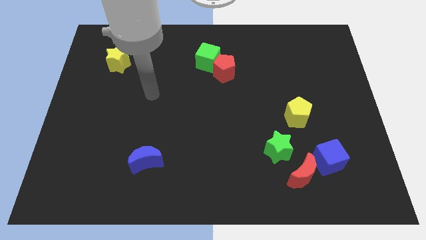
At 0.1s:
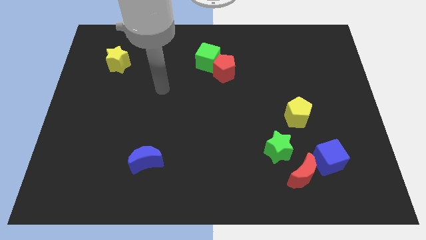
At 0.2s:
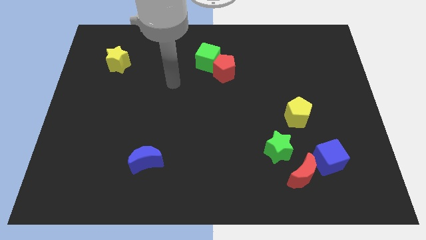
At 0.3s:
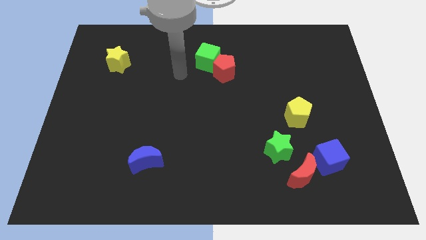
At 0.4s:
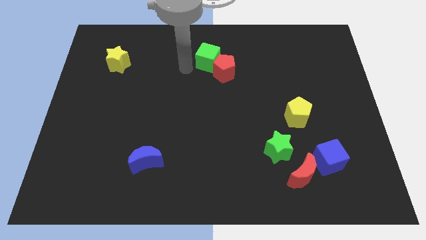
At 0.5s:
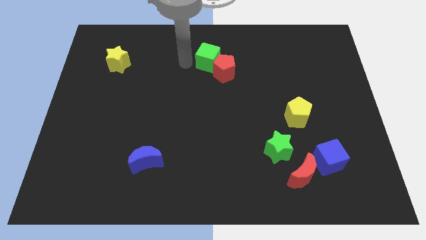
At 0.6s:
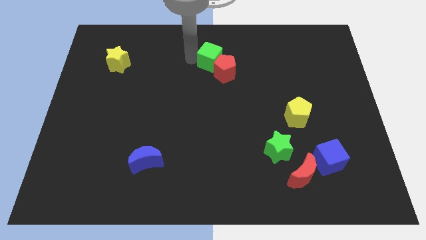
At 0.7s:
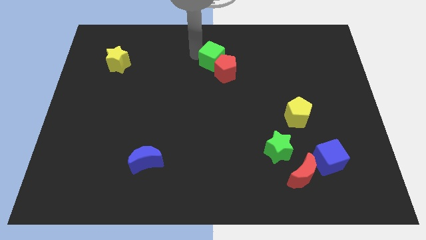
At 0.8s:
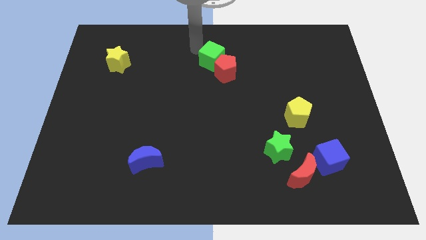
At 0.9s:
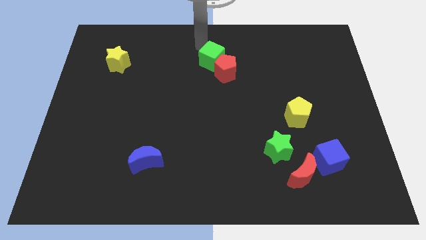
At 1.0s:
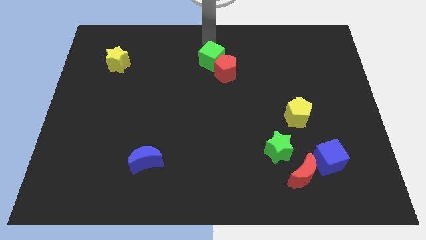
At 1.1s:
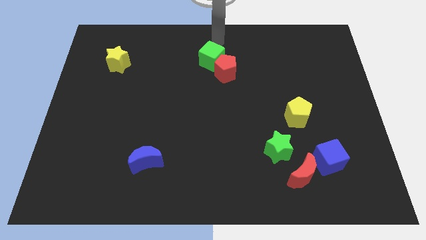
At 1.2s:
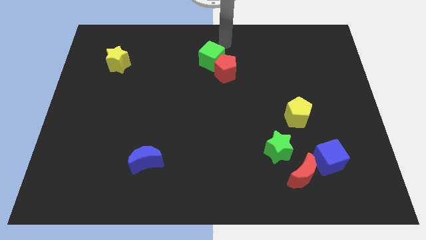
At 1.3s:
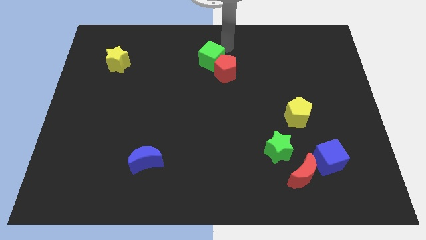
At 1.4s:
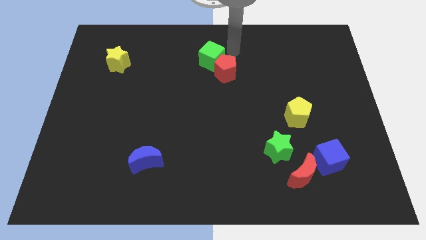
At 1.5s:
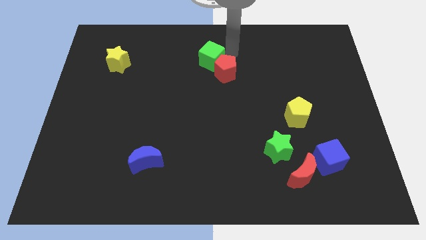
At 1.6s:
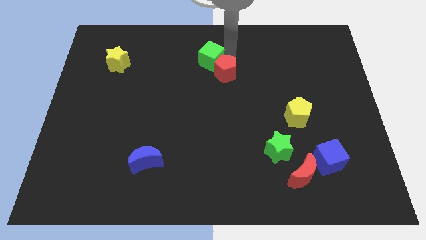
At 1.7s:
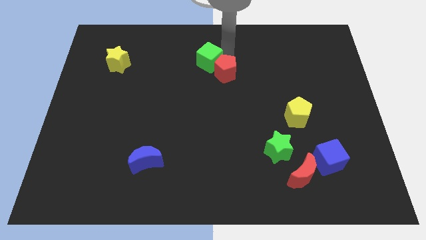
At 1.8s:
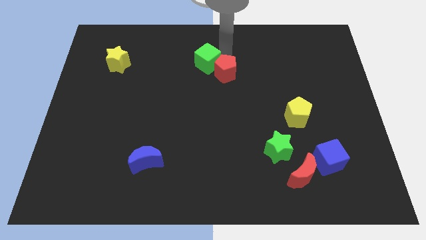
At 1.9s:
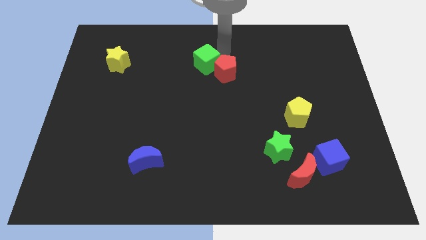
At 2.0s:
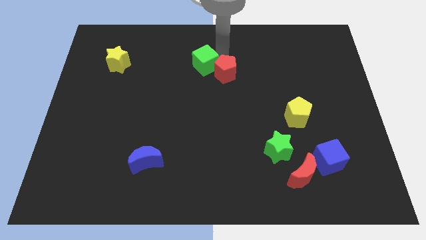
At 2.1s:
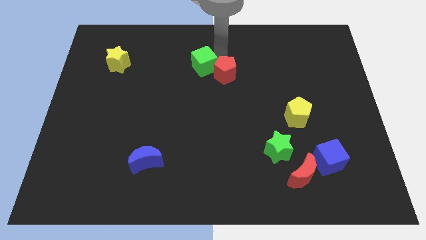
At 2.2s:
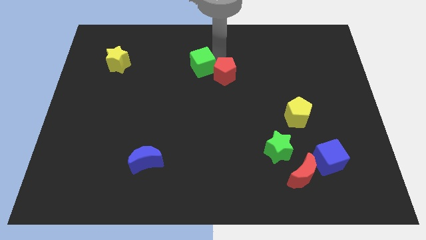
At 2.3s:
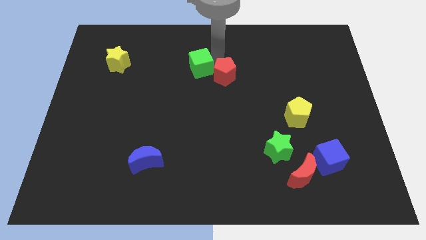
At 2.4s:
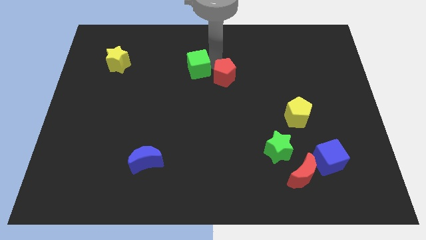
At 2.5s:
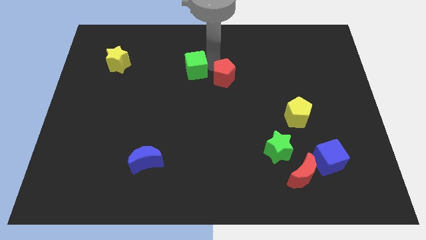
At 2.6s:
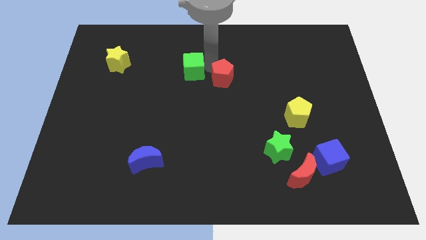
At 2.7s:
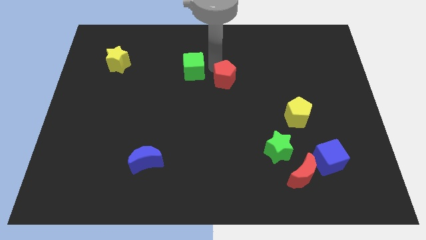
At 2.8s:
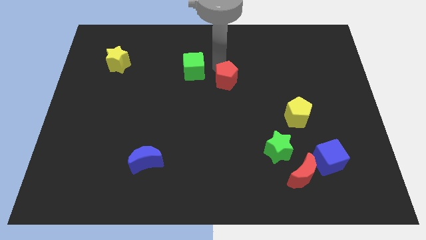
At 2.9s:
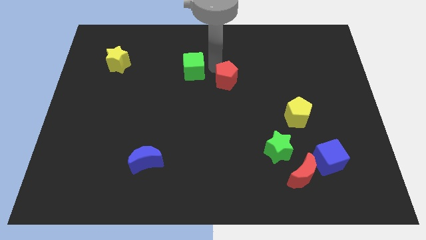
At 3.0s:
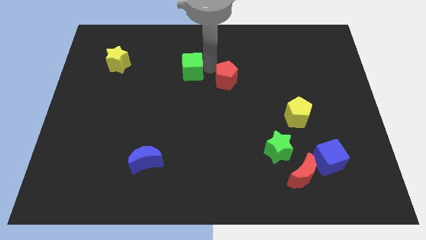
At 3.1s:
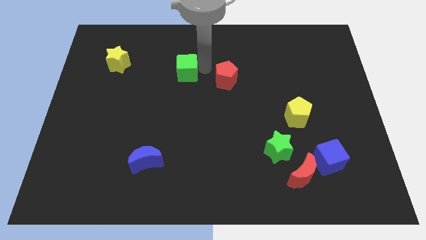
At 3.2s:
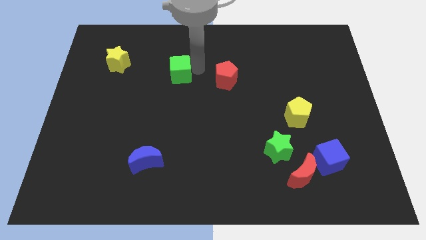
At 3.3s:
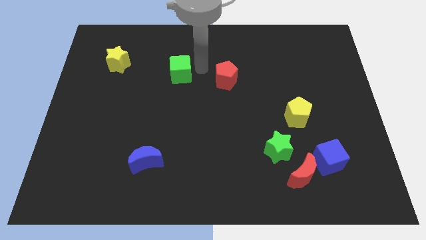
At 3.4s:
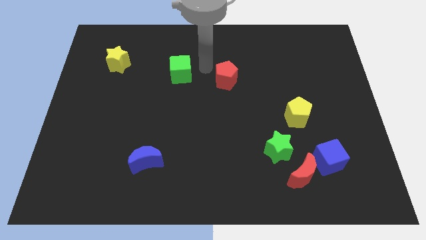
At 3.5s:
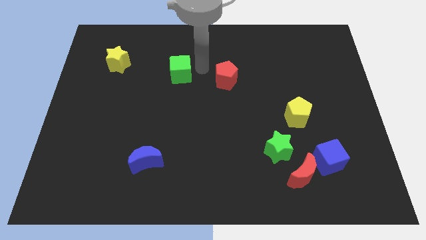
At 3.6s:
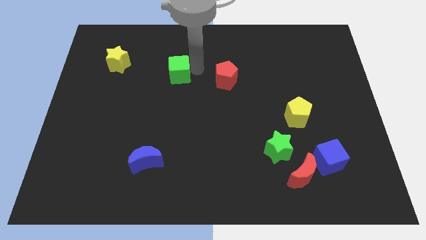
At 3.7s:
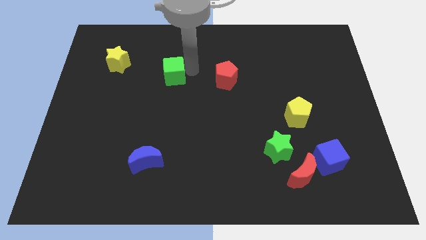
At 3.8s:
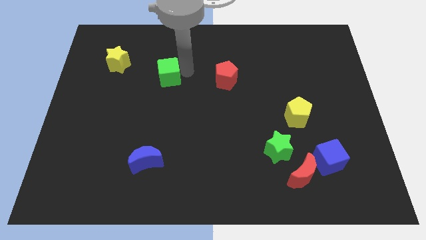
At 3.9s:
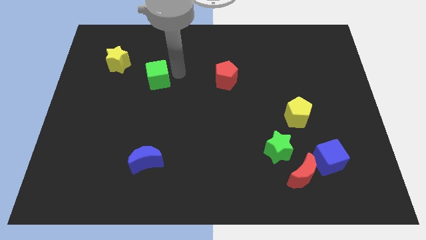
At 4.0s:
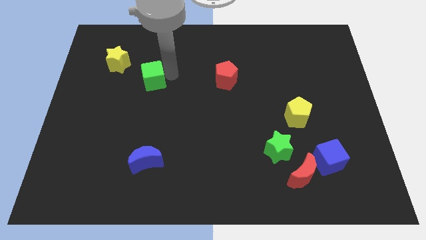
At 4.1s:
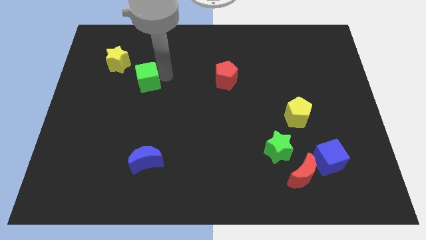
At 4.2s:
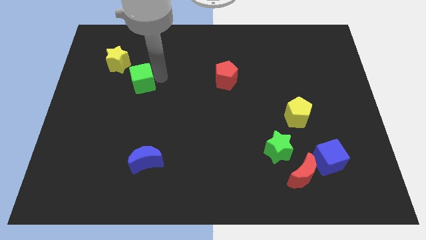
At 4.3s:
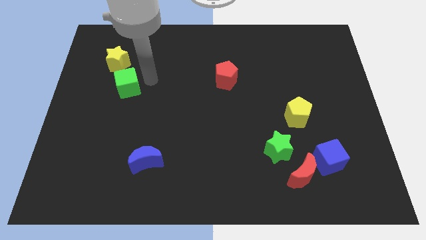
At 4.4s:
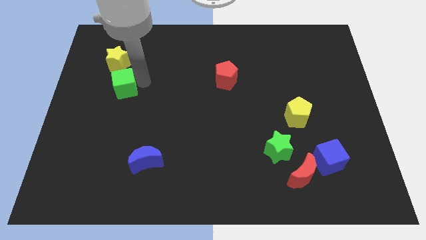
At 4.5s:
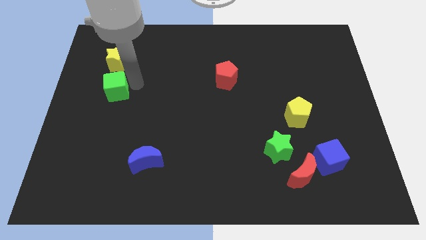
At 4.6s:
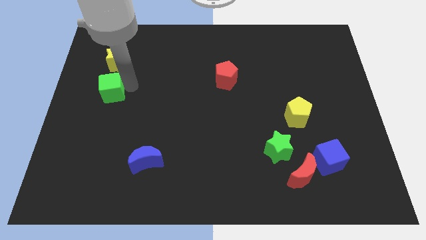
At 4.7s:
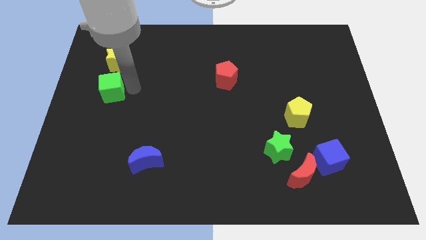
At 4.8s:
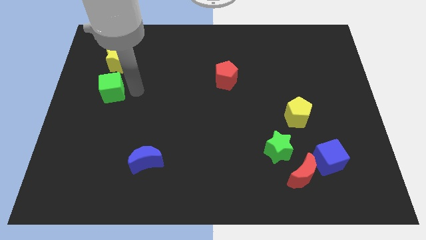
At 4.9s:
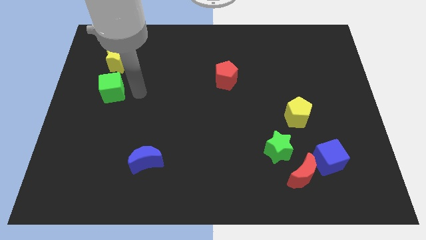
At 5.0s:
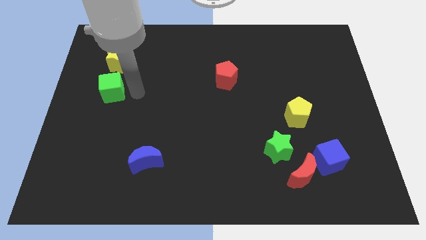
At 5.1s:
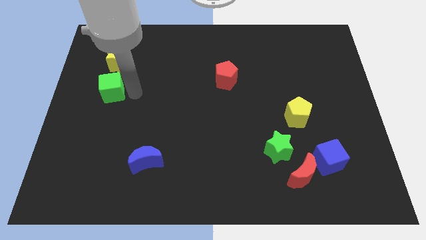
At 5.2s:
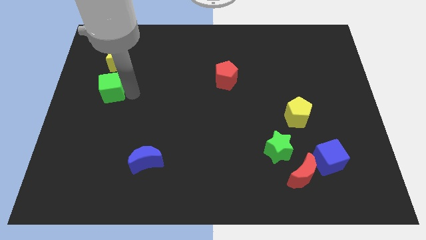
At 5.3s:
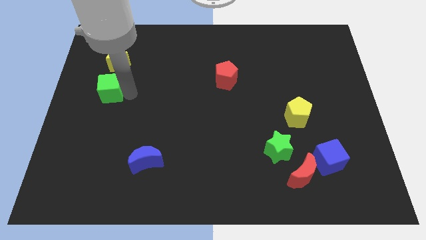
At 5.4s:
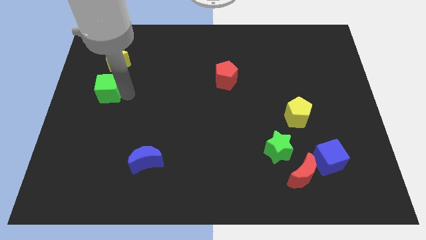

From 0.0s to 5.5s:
move the green cube to the left side of the board

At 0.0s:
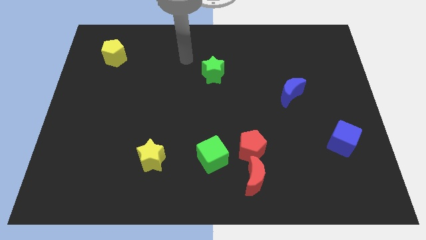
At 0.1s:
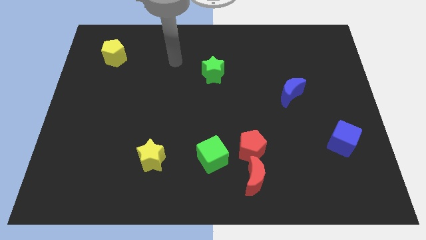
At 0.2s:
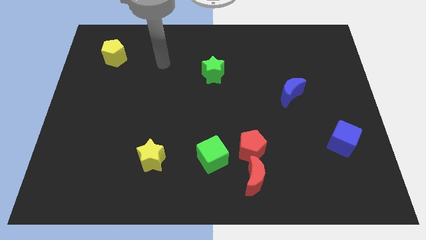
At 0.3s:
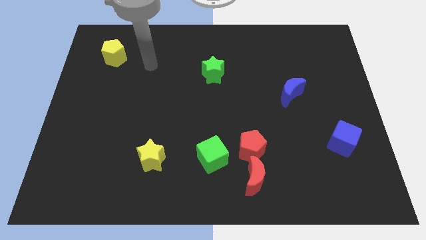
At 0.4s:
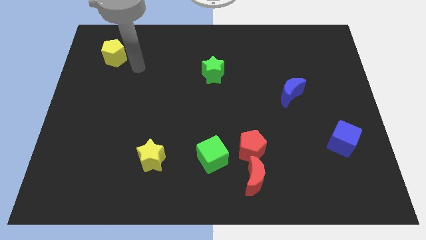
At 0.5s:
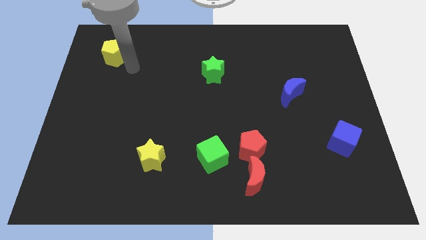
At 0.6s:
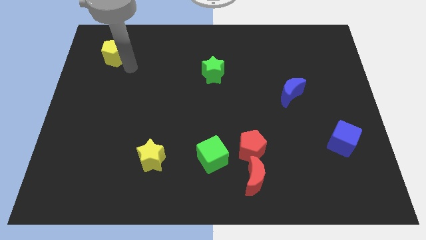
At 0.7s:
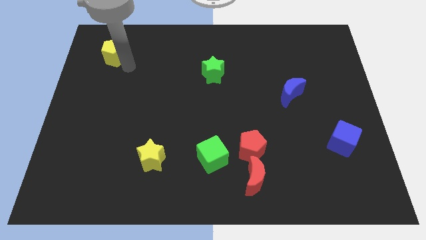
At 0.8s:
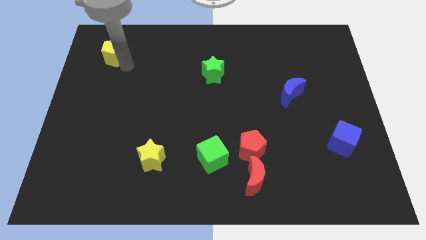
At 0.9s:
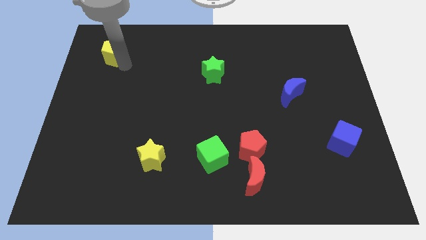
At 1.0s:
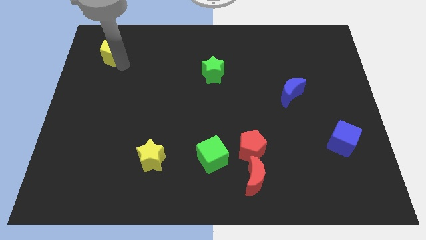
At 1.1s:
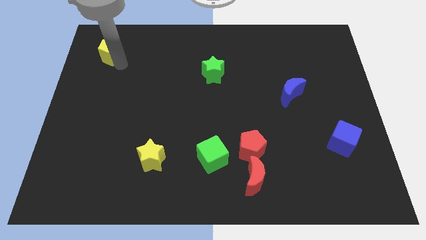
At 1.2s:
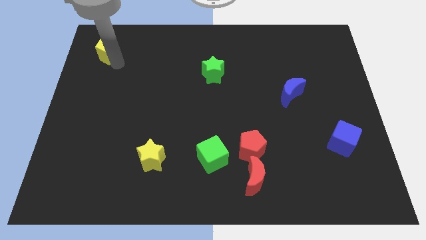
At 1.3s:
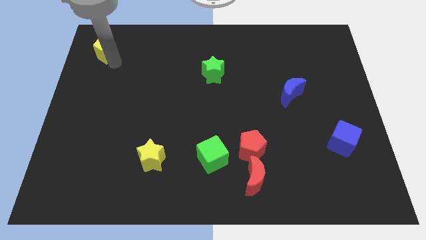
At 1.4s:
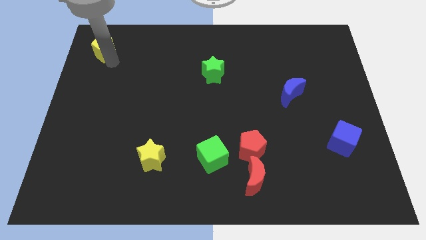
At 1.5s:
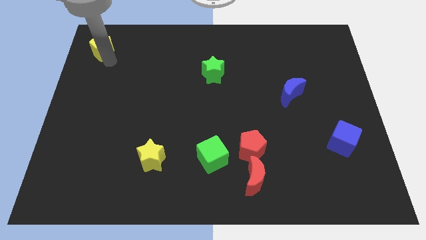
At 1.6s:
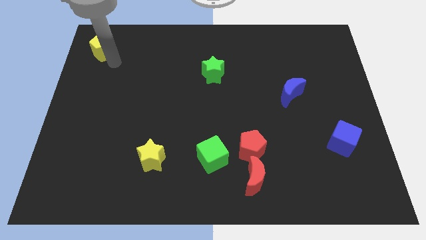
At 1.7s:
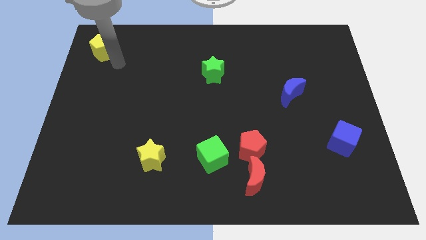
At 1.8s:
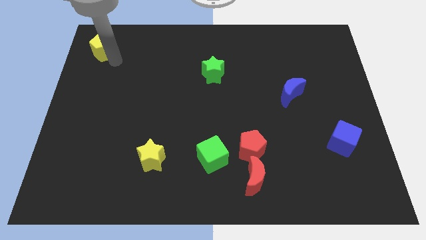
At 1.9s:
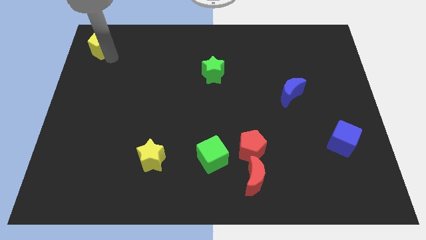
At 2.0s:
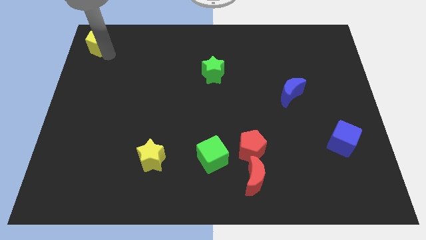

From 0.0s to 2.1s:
put the yellow pentagon to the top left corner
